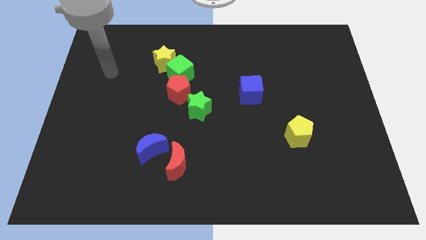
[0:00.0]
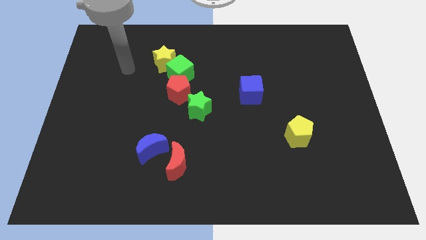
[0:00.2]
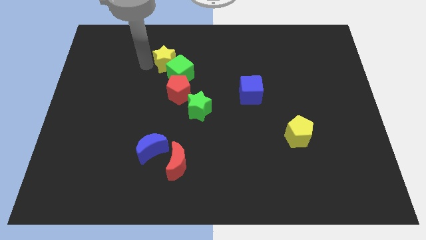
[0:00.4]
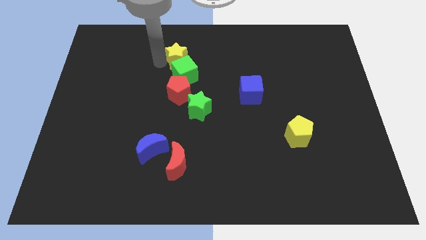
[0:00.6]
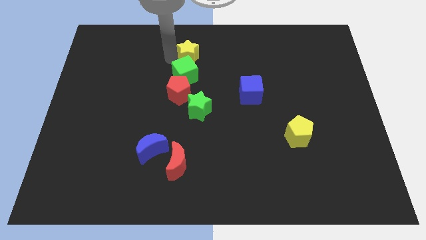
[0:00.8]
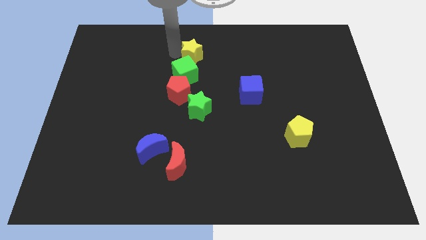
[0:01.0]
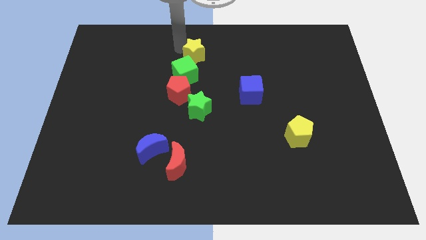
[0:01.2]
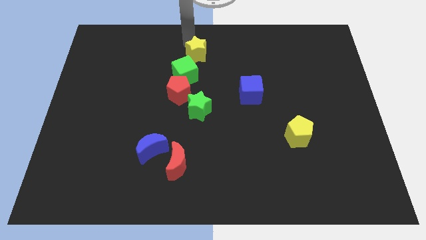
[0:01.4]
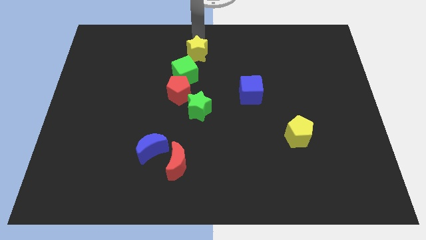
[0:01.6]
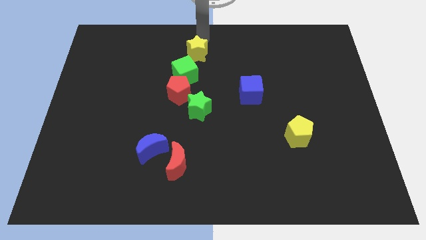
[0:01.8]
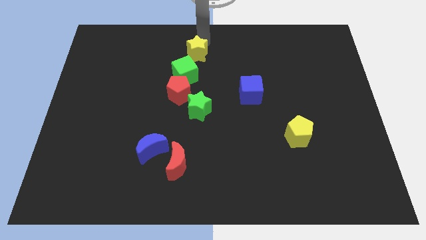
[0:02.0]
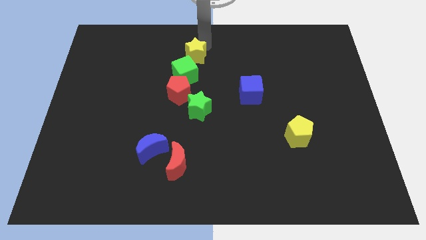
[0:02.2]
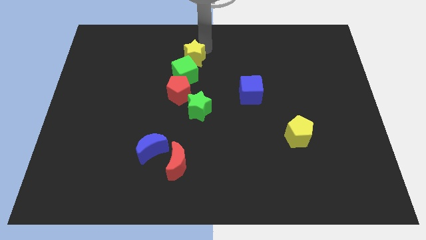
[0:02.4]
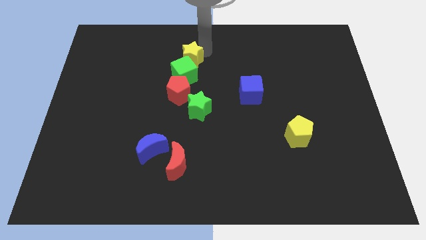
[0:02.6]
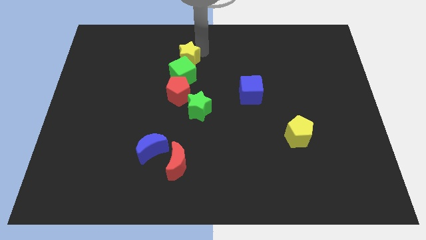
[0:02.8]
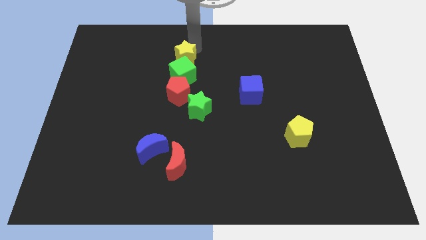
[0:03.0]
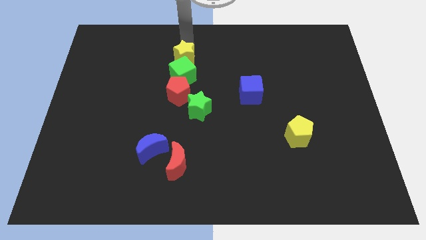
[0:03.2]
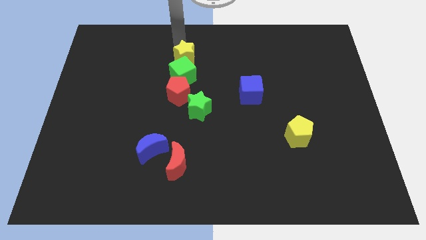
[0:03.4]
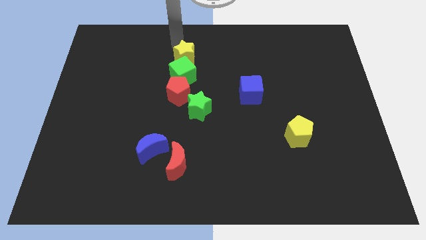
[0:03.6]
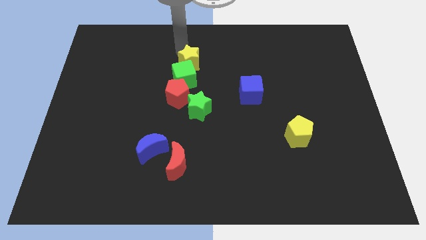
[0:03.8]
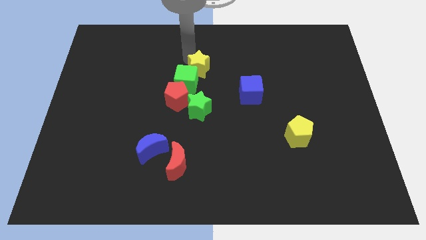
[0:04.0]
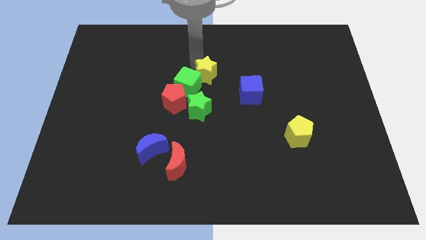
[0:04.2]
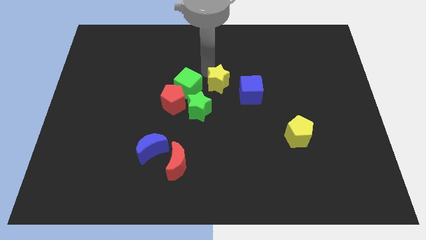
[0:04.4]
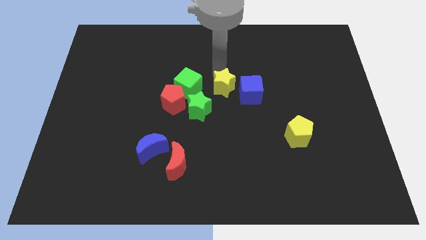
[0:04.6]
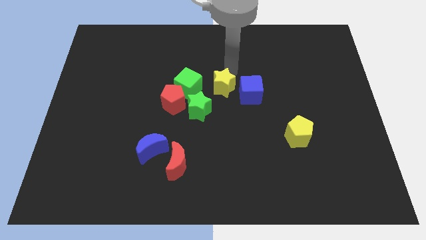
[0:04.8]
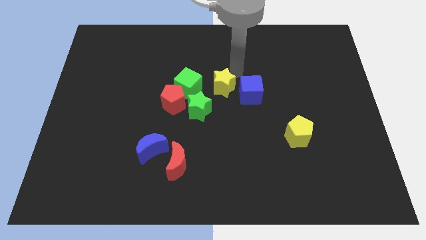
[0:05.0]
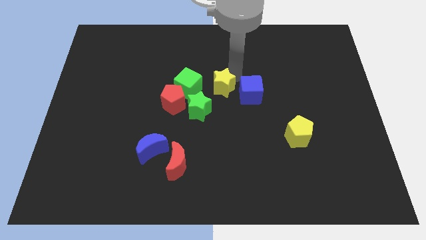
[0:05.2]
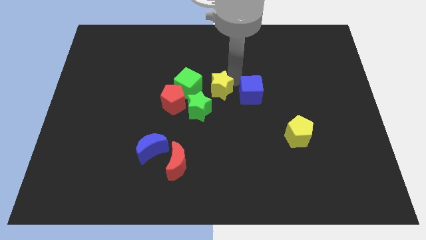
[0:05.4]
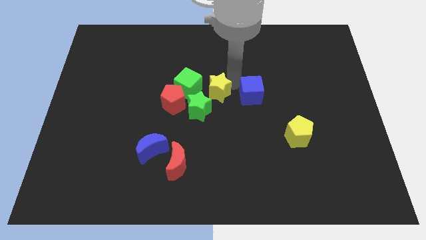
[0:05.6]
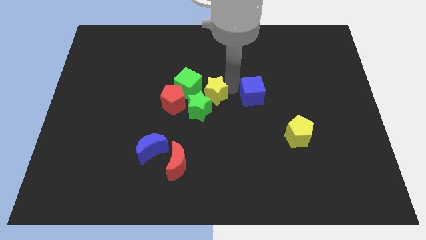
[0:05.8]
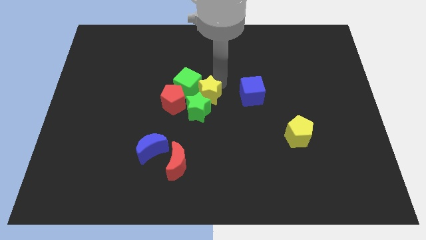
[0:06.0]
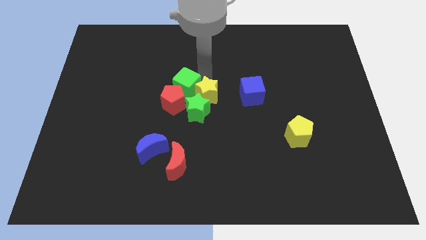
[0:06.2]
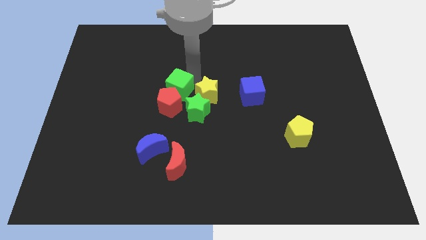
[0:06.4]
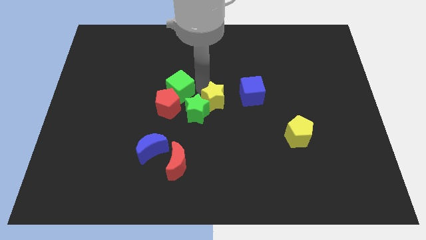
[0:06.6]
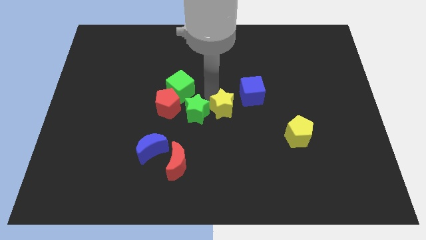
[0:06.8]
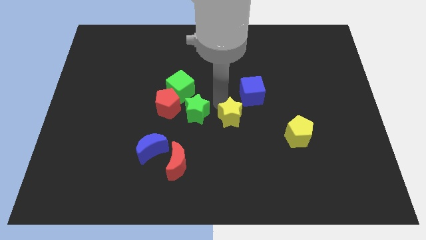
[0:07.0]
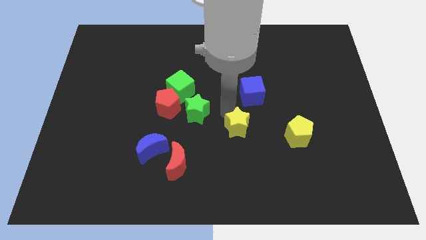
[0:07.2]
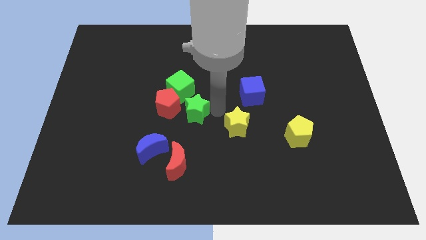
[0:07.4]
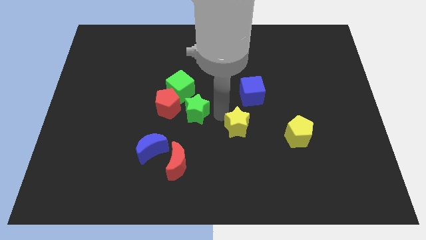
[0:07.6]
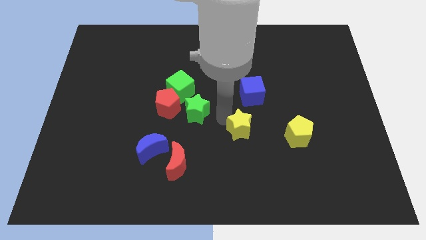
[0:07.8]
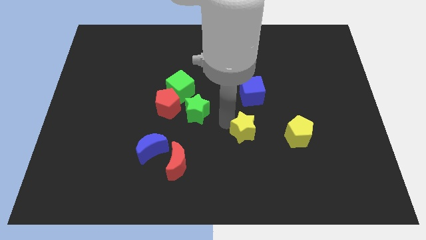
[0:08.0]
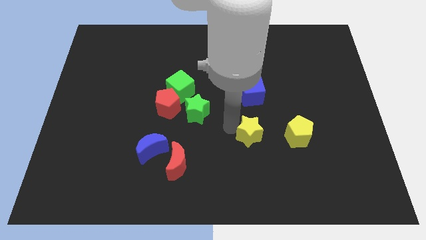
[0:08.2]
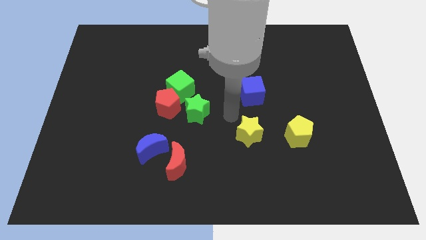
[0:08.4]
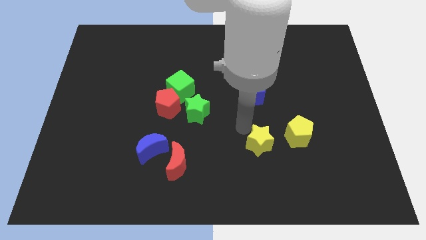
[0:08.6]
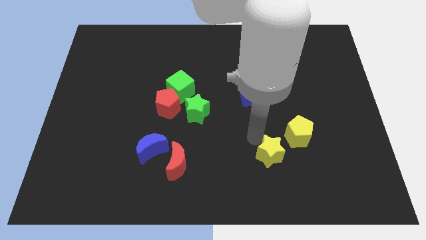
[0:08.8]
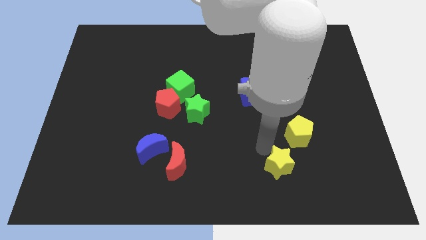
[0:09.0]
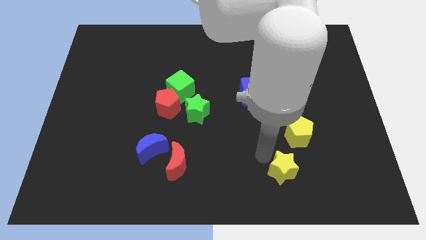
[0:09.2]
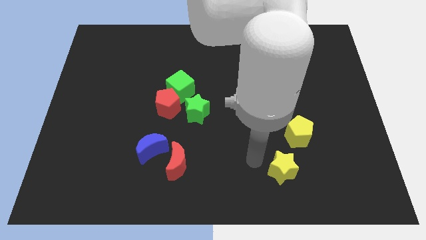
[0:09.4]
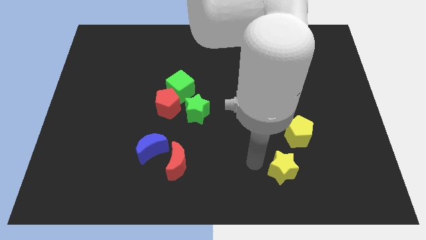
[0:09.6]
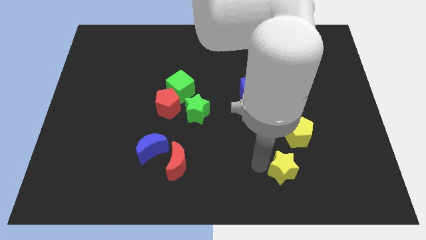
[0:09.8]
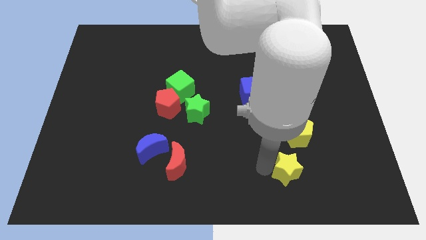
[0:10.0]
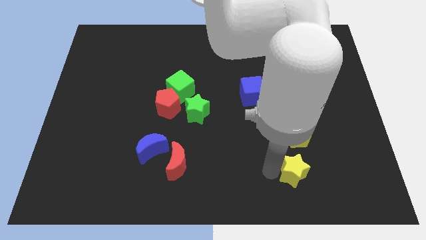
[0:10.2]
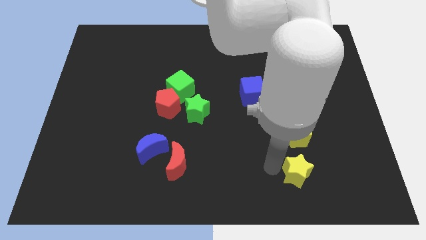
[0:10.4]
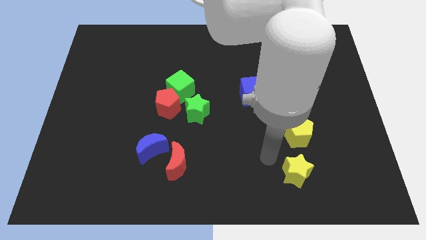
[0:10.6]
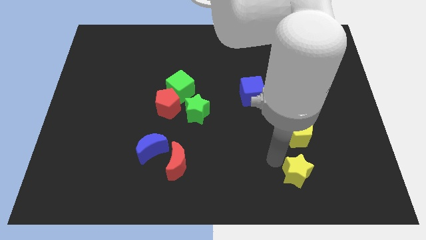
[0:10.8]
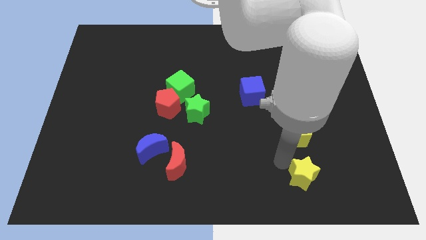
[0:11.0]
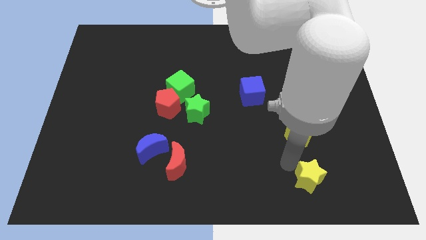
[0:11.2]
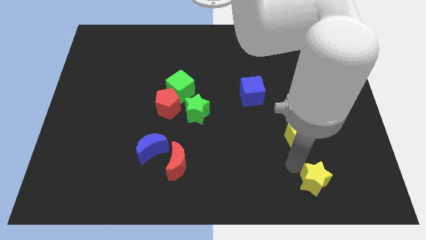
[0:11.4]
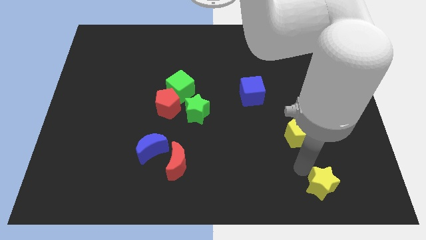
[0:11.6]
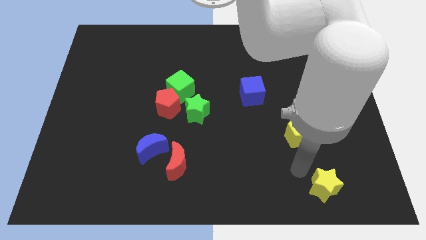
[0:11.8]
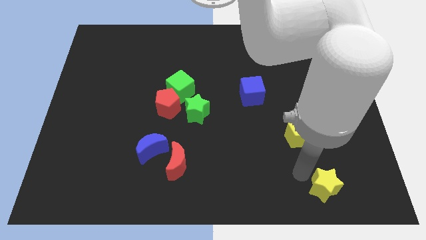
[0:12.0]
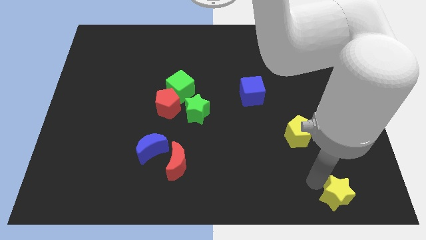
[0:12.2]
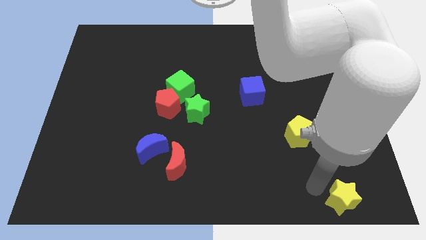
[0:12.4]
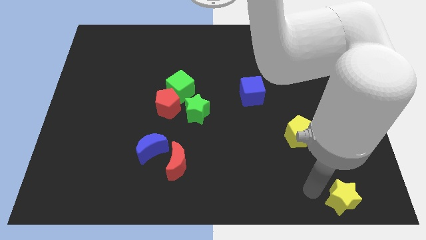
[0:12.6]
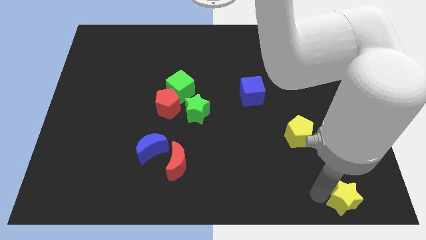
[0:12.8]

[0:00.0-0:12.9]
put the yellow star to the bottom right
